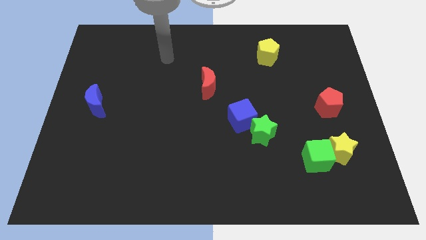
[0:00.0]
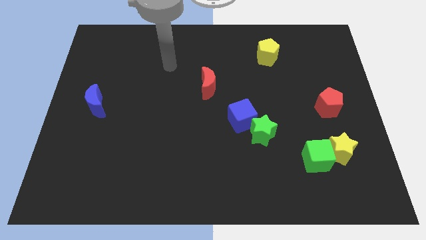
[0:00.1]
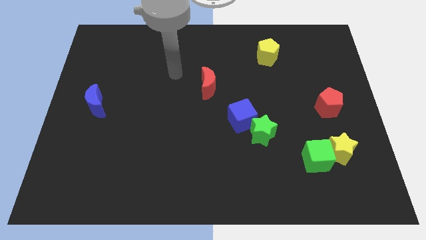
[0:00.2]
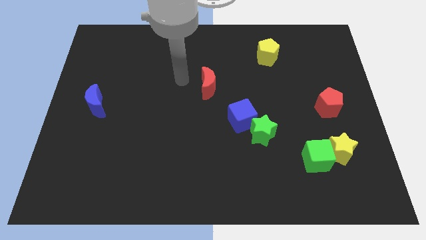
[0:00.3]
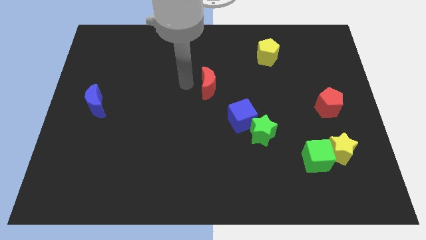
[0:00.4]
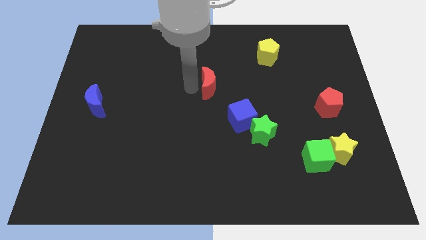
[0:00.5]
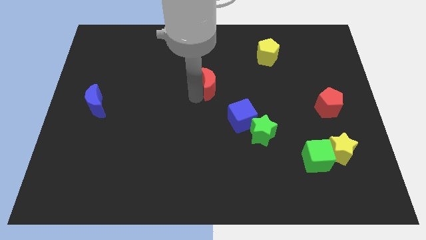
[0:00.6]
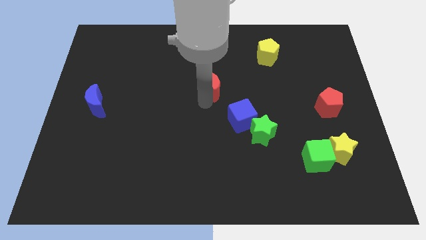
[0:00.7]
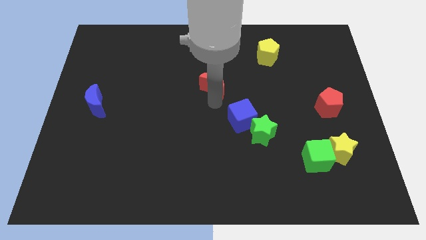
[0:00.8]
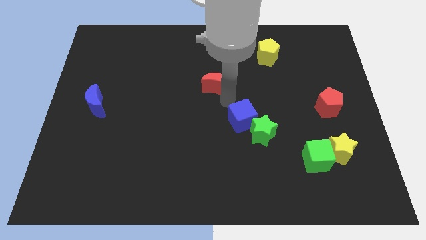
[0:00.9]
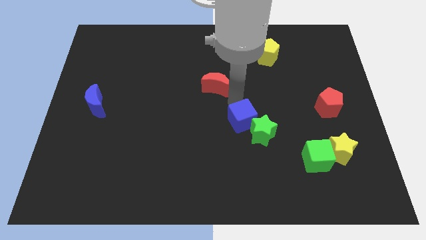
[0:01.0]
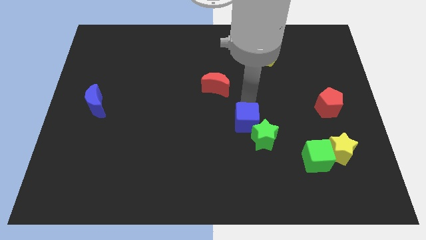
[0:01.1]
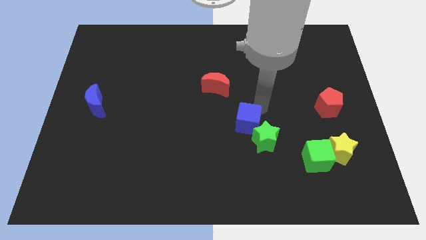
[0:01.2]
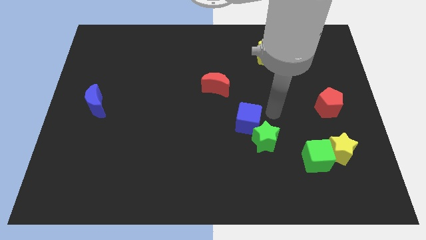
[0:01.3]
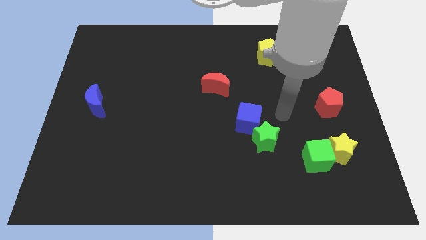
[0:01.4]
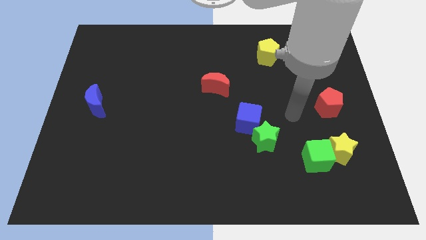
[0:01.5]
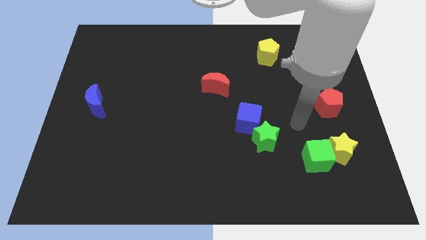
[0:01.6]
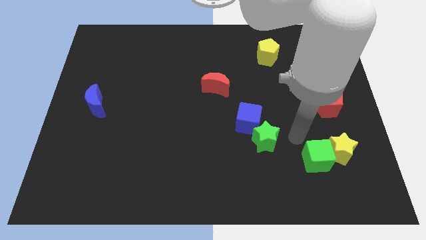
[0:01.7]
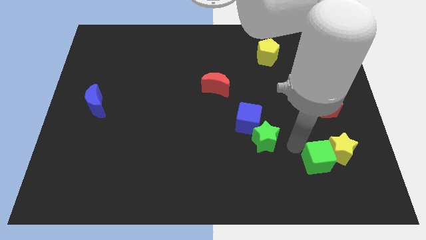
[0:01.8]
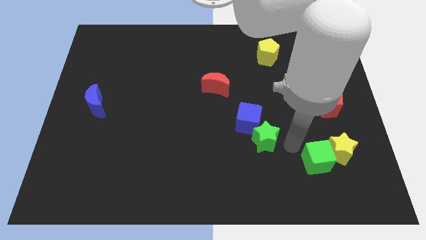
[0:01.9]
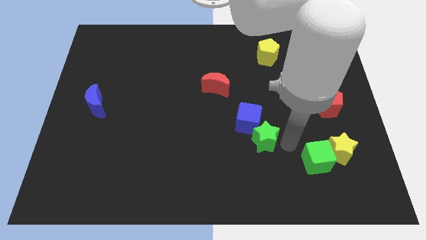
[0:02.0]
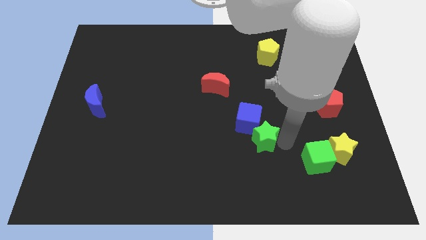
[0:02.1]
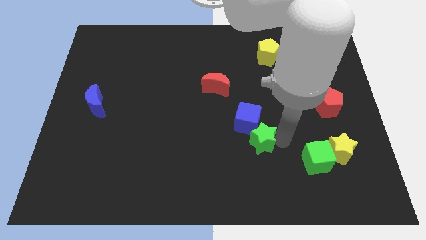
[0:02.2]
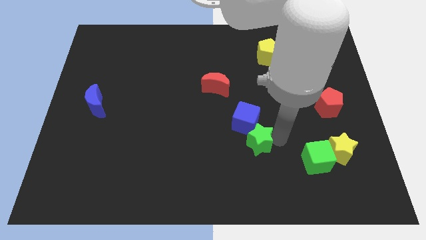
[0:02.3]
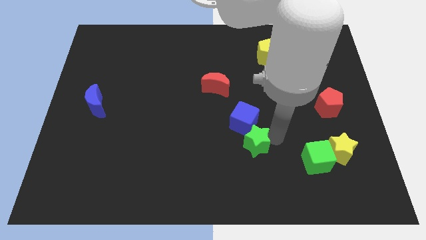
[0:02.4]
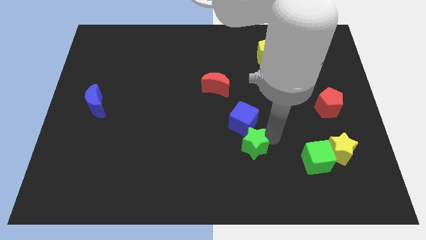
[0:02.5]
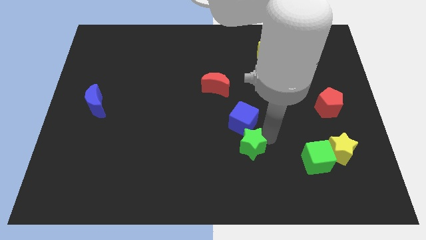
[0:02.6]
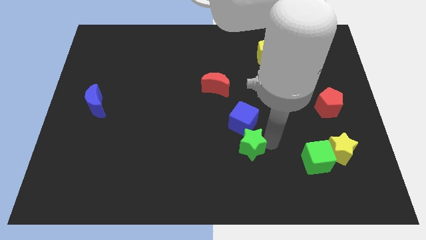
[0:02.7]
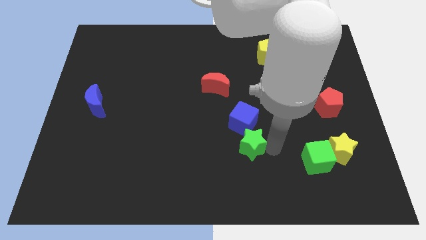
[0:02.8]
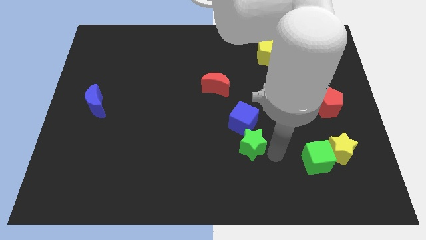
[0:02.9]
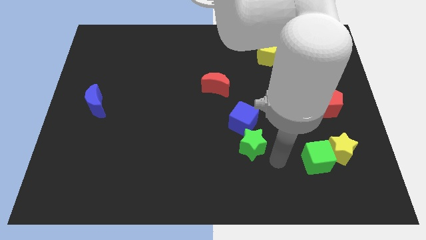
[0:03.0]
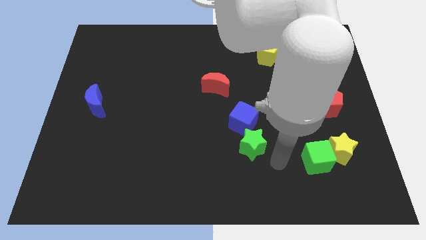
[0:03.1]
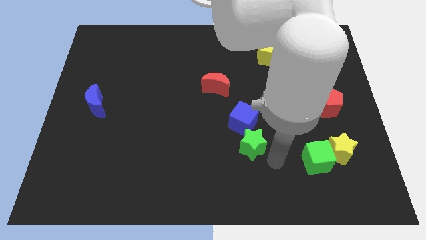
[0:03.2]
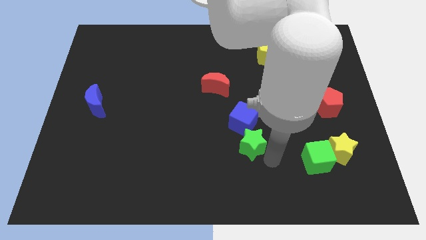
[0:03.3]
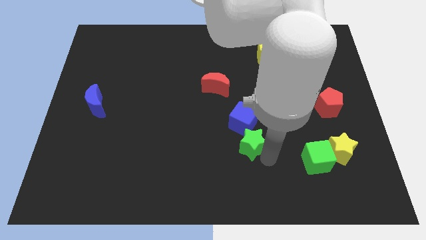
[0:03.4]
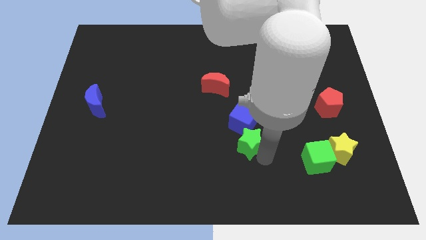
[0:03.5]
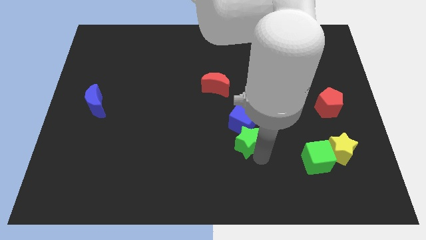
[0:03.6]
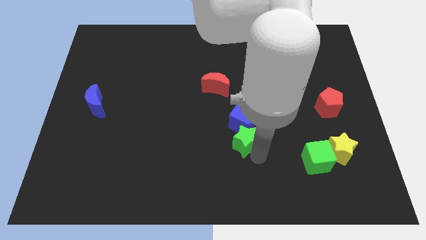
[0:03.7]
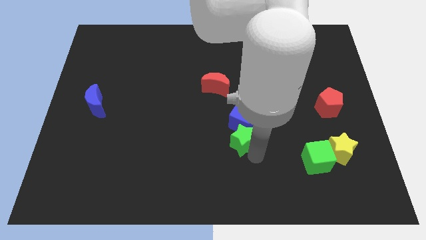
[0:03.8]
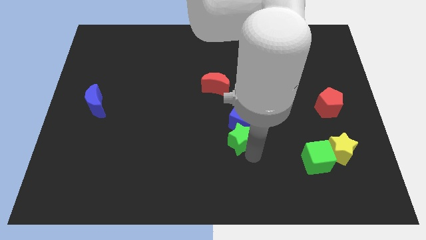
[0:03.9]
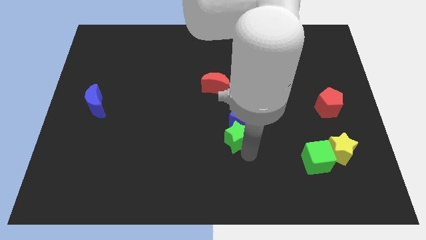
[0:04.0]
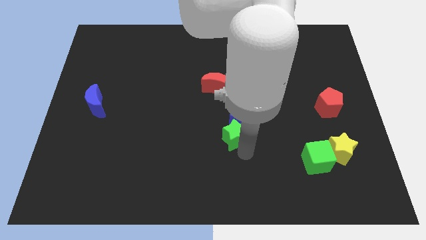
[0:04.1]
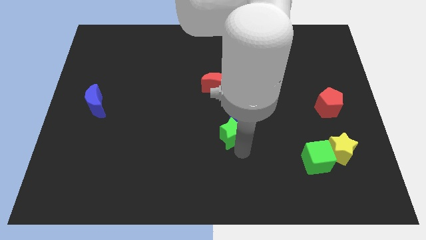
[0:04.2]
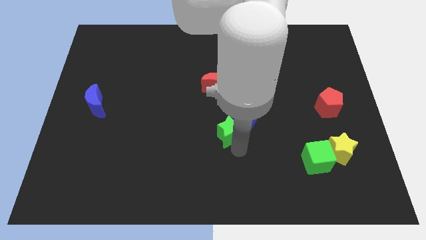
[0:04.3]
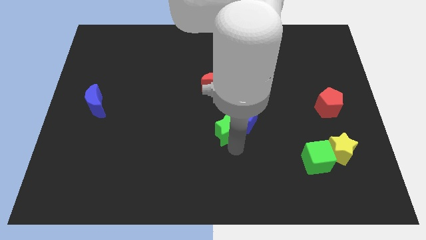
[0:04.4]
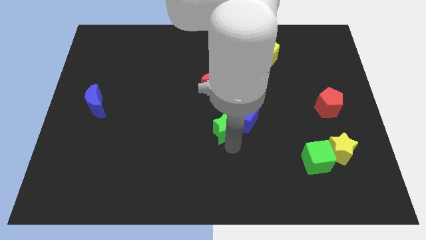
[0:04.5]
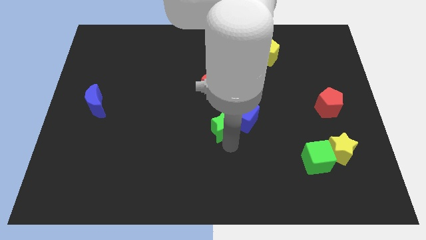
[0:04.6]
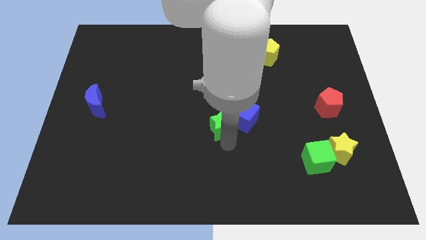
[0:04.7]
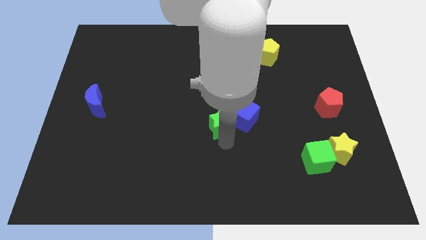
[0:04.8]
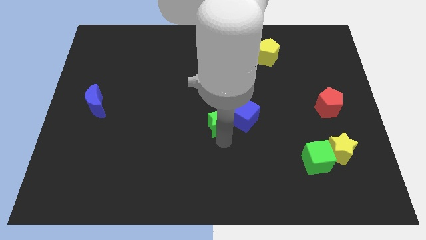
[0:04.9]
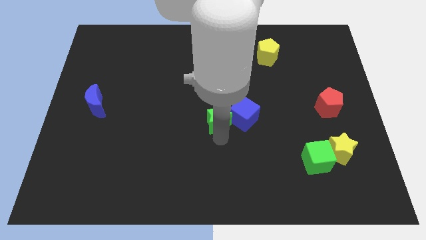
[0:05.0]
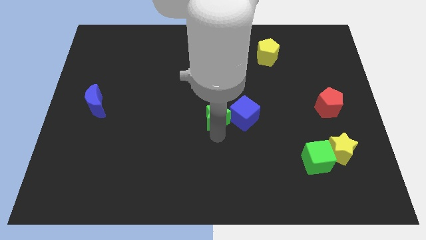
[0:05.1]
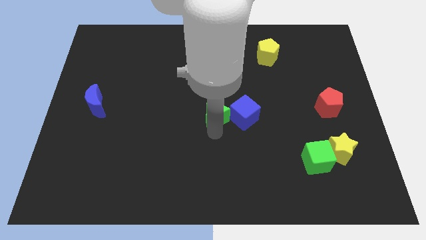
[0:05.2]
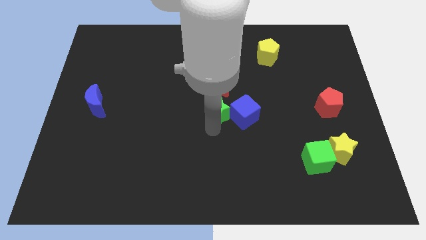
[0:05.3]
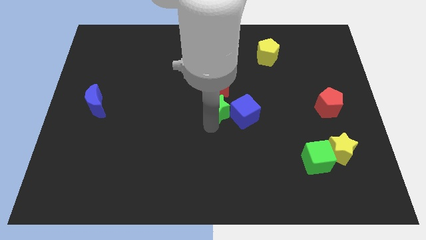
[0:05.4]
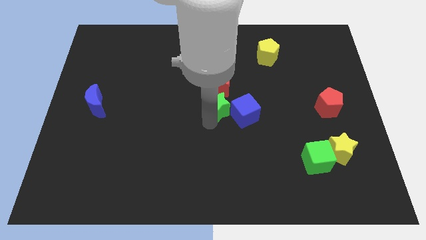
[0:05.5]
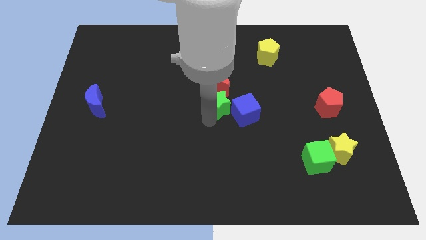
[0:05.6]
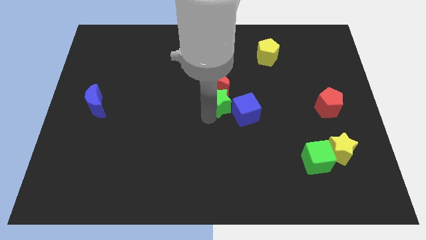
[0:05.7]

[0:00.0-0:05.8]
push the green star close to the red moon

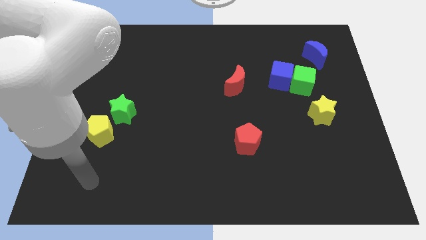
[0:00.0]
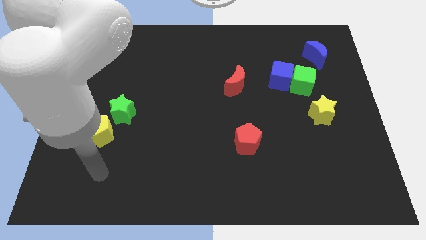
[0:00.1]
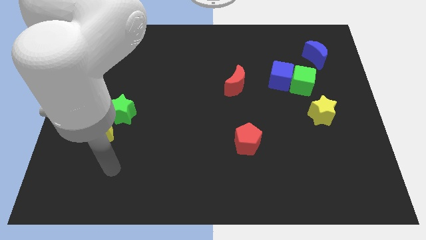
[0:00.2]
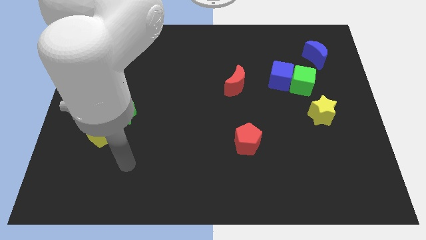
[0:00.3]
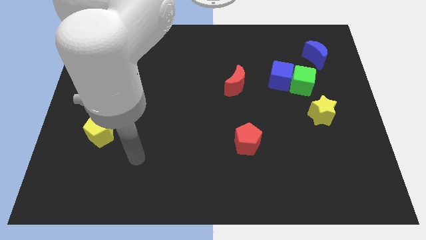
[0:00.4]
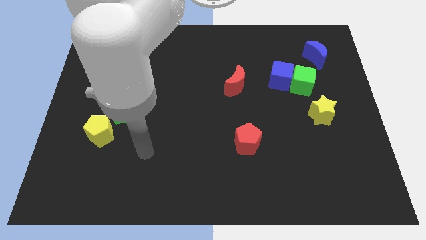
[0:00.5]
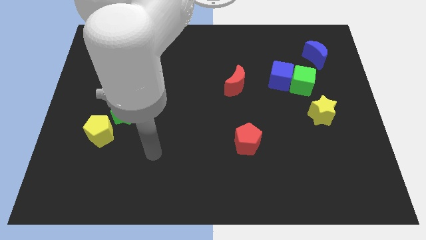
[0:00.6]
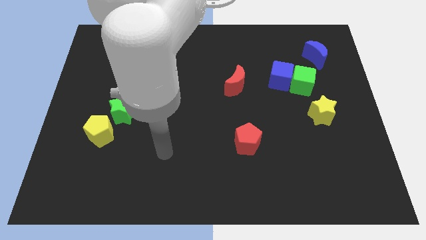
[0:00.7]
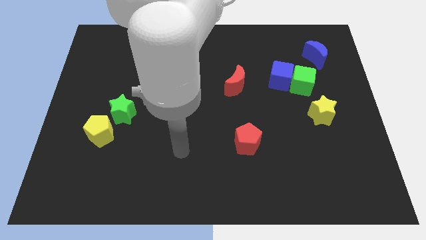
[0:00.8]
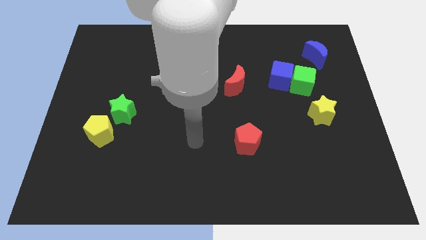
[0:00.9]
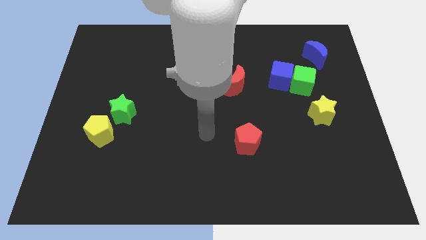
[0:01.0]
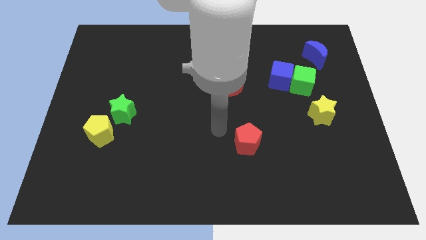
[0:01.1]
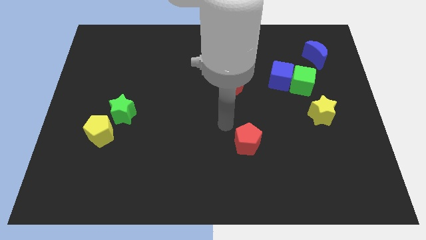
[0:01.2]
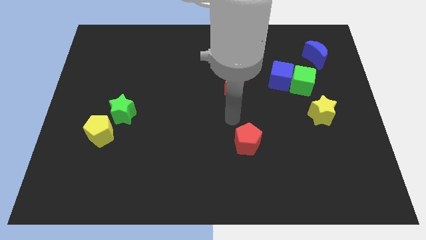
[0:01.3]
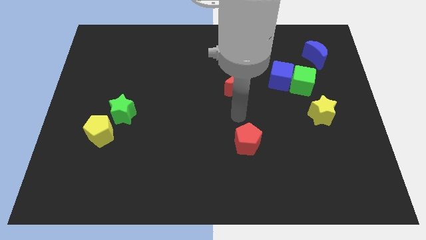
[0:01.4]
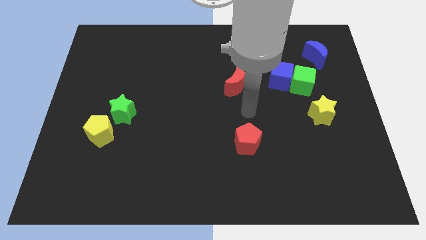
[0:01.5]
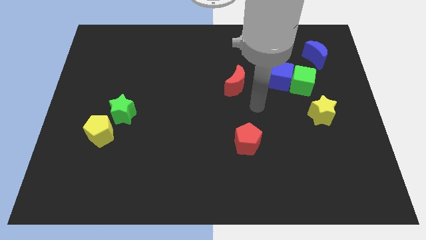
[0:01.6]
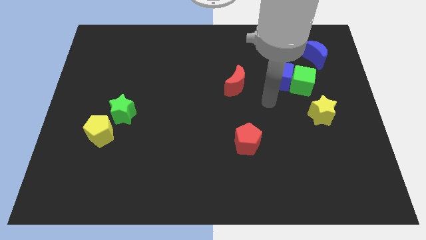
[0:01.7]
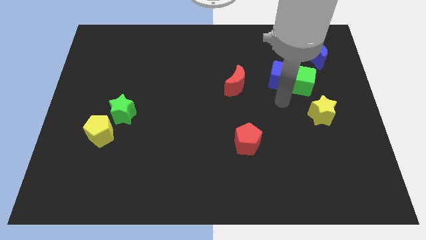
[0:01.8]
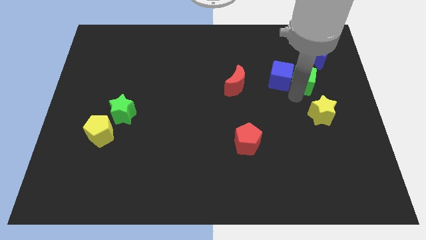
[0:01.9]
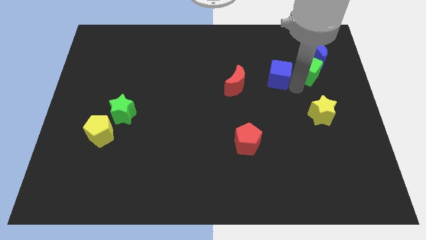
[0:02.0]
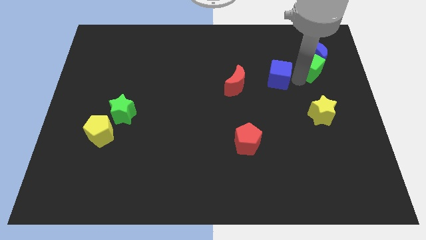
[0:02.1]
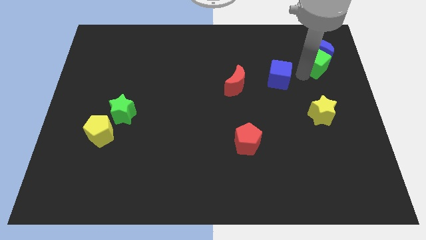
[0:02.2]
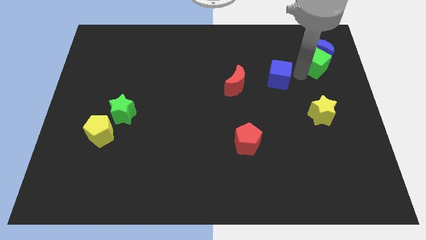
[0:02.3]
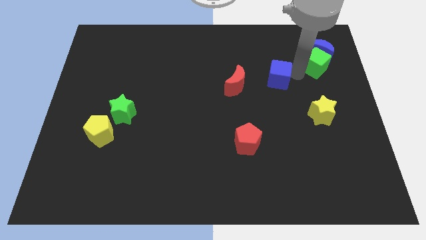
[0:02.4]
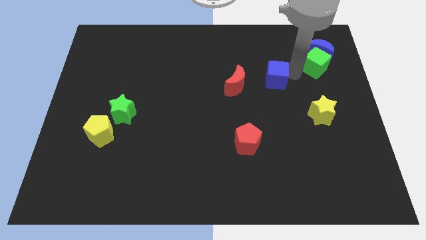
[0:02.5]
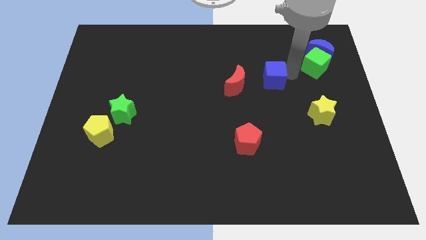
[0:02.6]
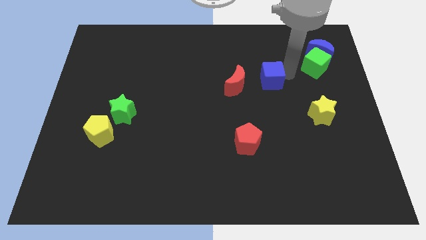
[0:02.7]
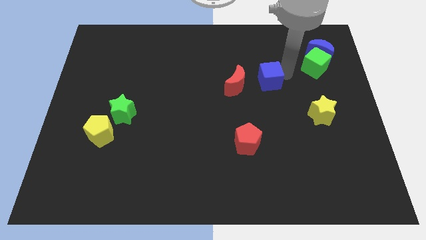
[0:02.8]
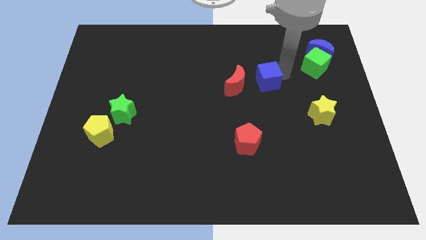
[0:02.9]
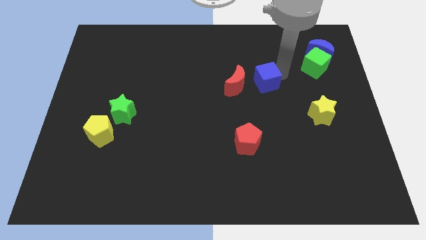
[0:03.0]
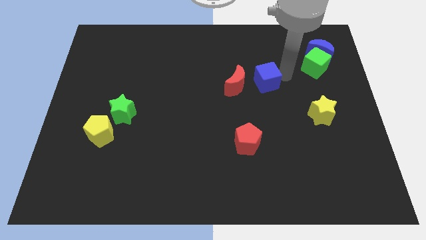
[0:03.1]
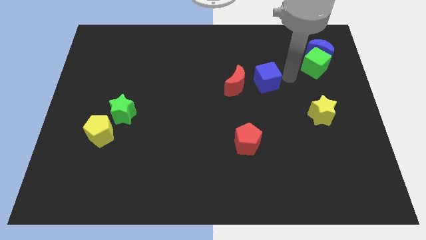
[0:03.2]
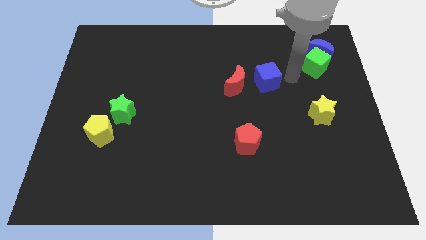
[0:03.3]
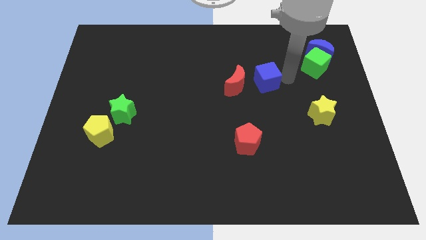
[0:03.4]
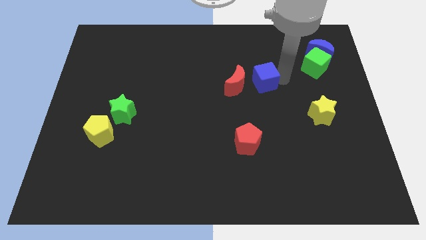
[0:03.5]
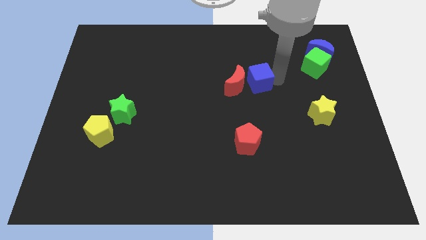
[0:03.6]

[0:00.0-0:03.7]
put the blue cube towards the red moon
